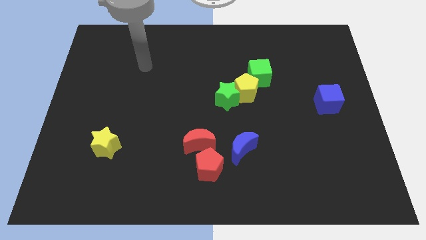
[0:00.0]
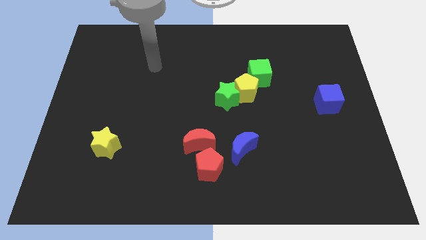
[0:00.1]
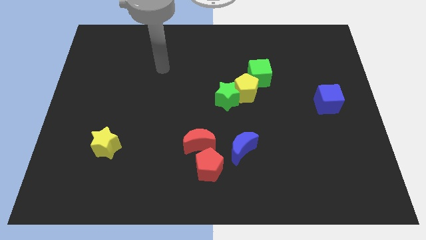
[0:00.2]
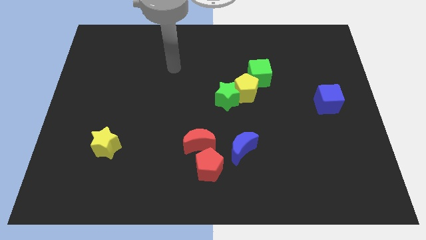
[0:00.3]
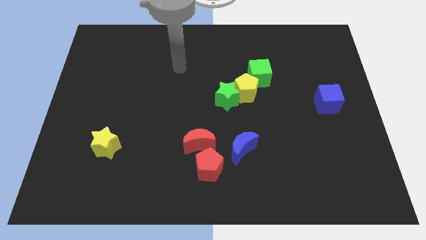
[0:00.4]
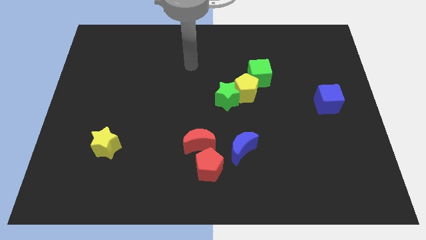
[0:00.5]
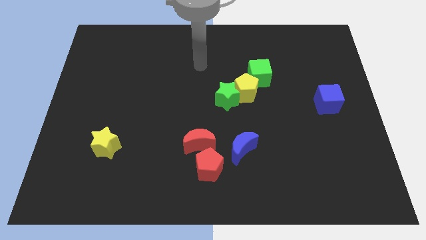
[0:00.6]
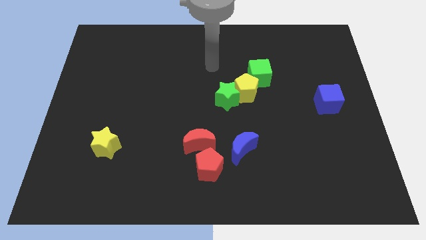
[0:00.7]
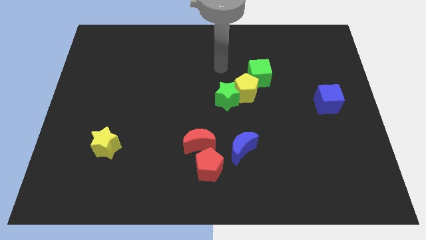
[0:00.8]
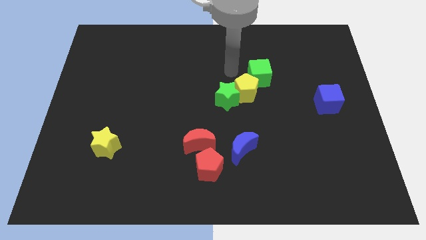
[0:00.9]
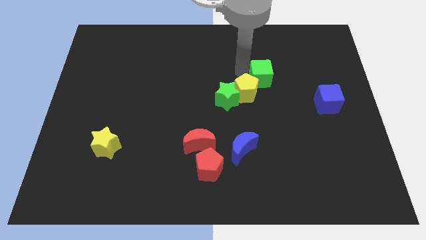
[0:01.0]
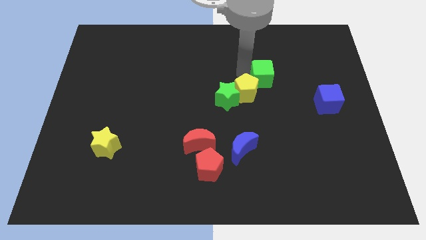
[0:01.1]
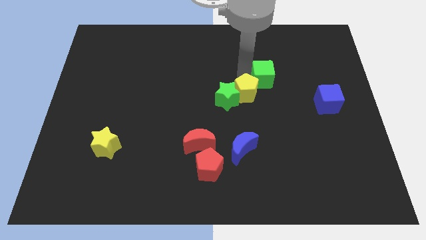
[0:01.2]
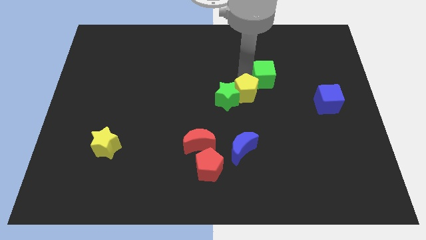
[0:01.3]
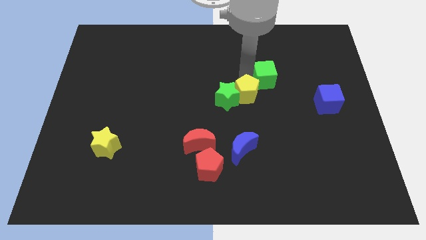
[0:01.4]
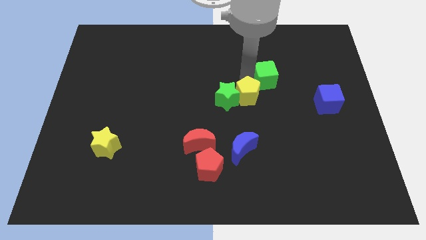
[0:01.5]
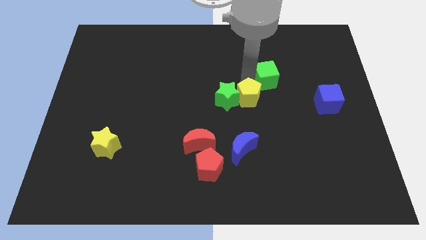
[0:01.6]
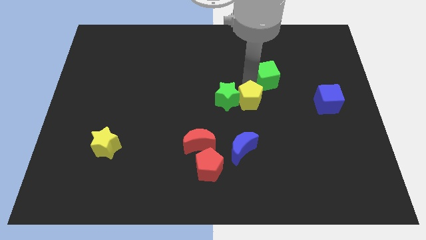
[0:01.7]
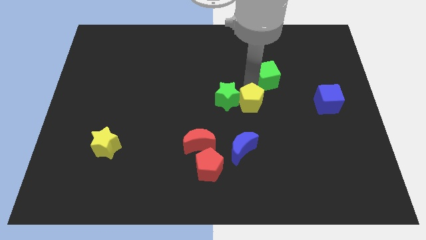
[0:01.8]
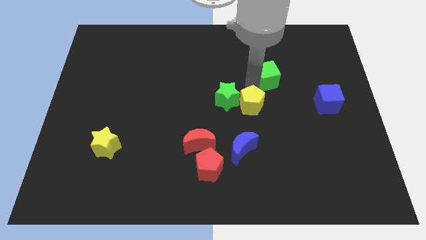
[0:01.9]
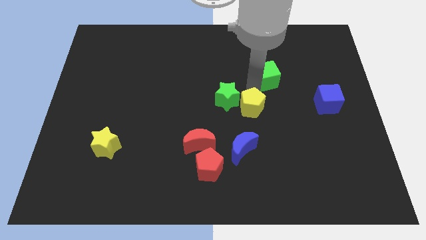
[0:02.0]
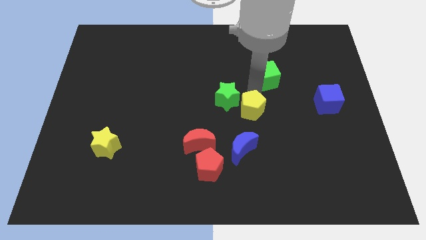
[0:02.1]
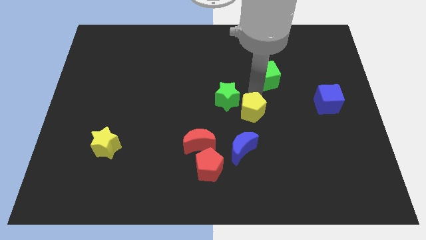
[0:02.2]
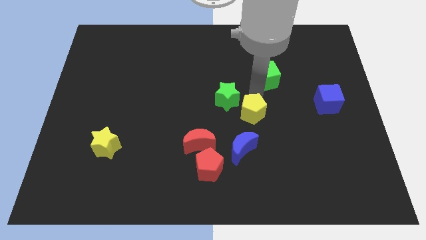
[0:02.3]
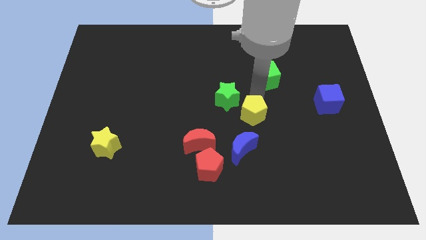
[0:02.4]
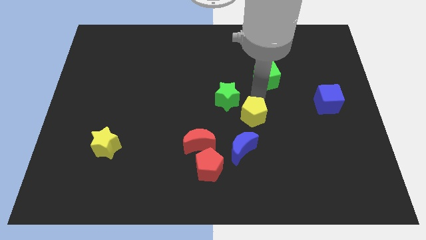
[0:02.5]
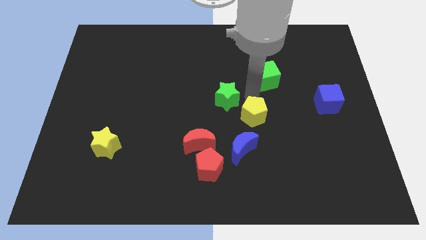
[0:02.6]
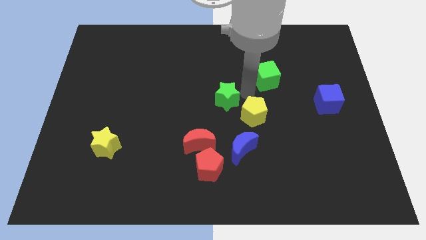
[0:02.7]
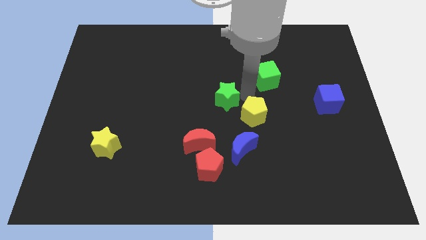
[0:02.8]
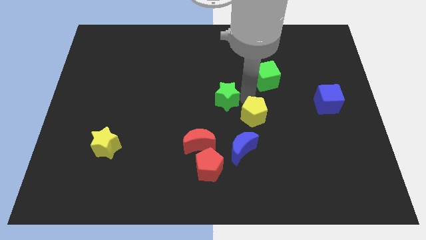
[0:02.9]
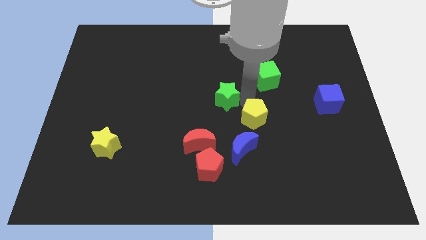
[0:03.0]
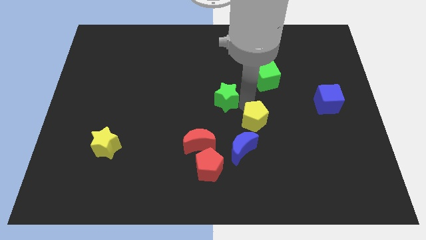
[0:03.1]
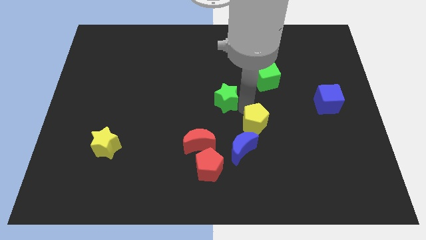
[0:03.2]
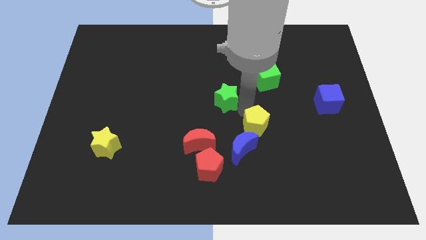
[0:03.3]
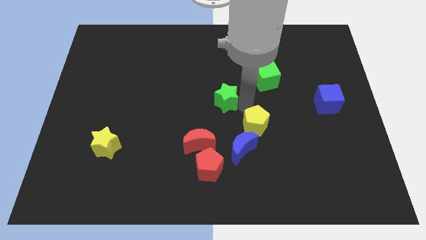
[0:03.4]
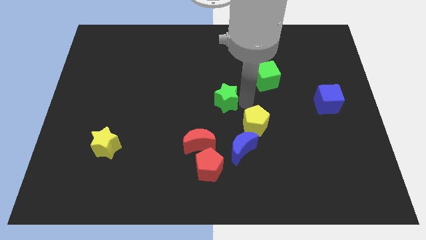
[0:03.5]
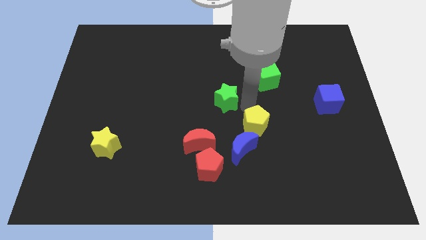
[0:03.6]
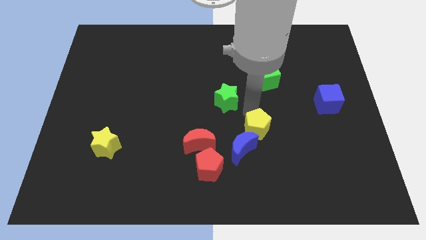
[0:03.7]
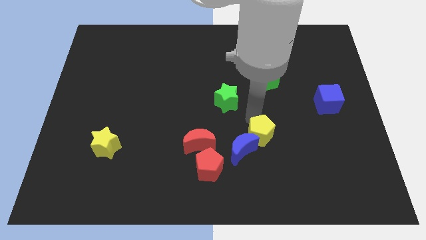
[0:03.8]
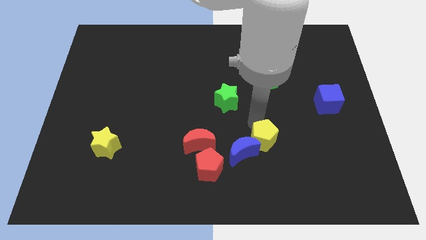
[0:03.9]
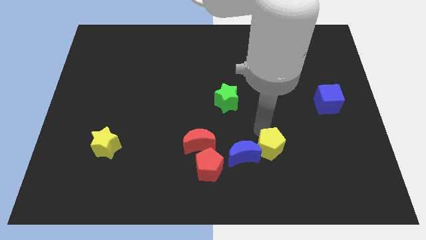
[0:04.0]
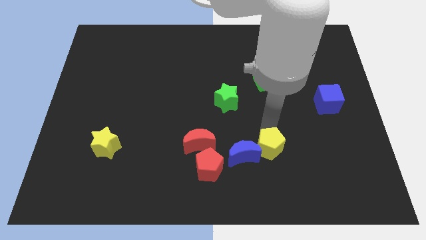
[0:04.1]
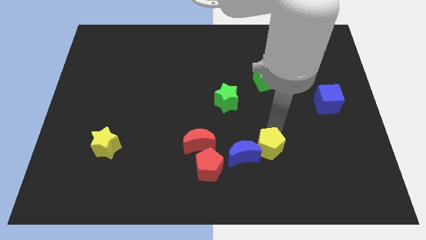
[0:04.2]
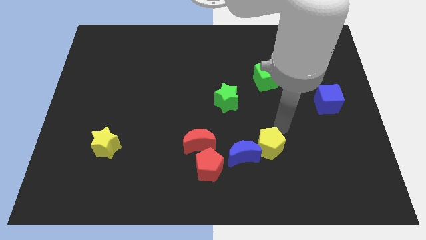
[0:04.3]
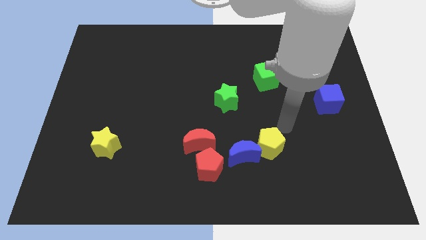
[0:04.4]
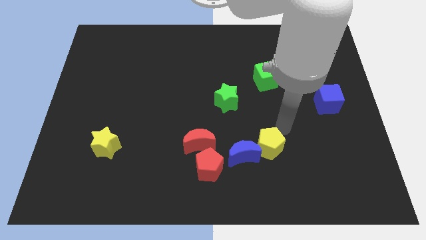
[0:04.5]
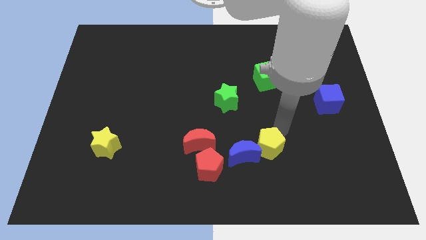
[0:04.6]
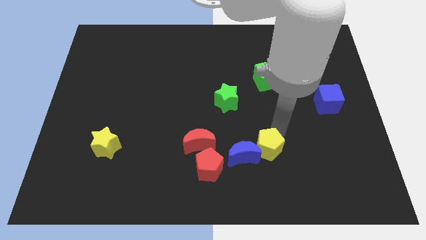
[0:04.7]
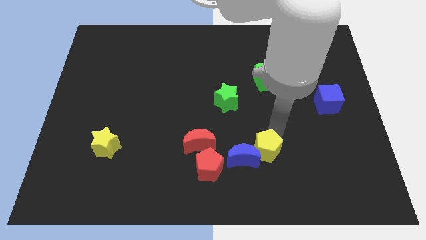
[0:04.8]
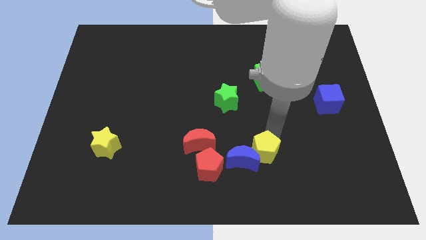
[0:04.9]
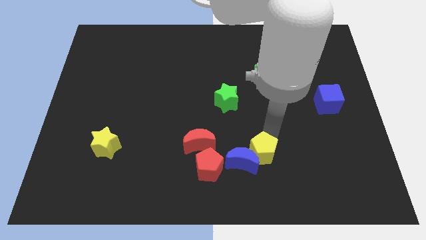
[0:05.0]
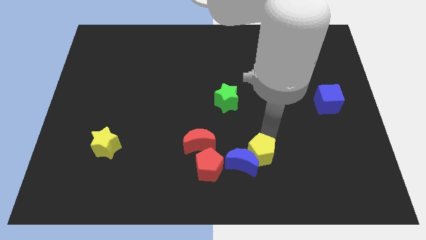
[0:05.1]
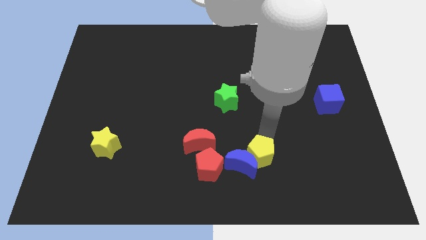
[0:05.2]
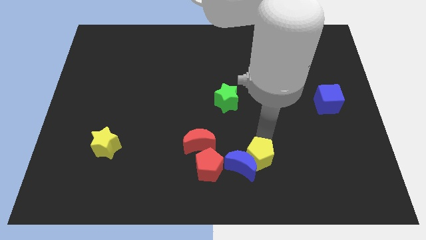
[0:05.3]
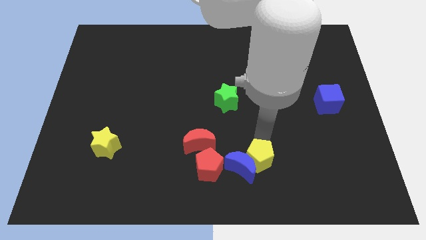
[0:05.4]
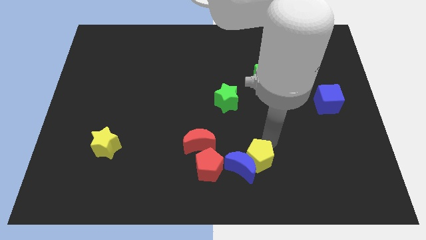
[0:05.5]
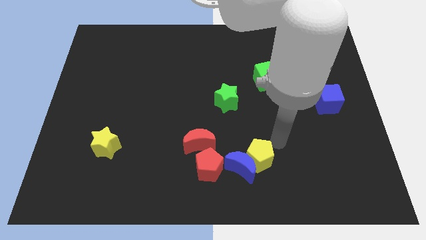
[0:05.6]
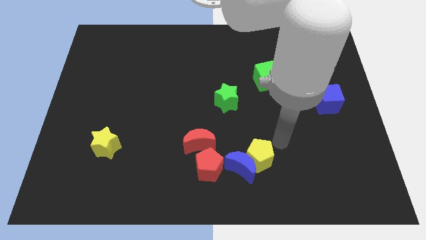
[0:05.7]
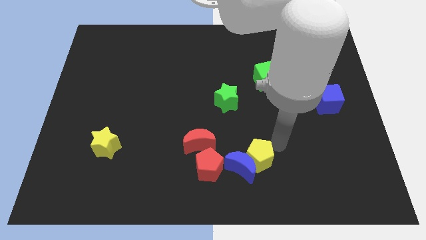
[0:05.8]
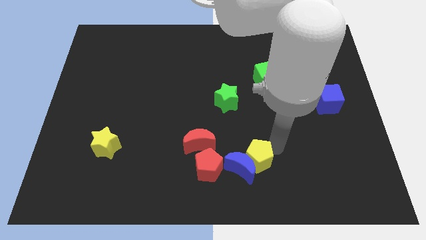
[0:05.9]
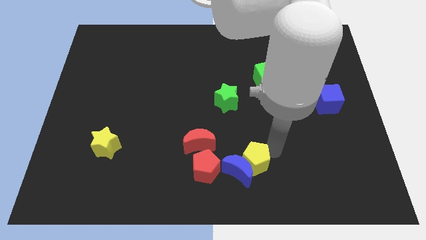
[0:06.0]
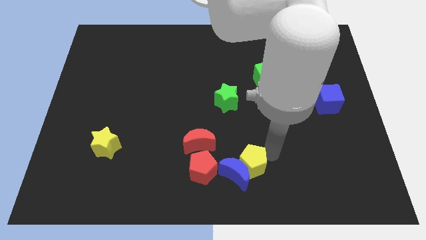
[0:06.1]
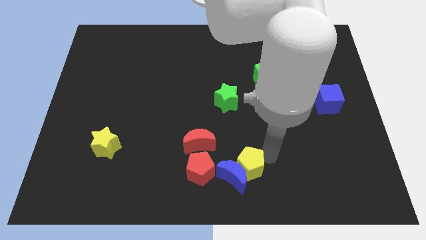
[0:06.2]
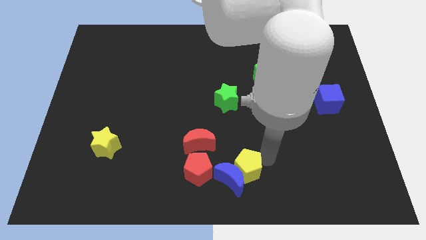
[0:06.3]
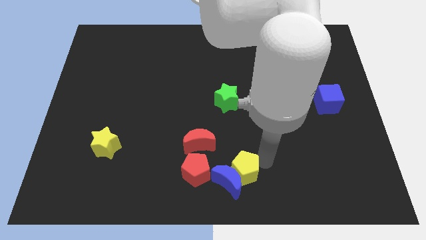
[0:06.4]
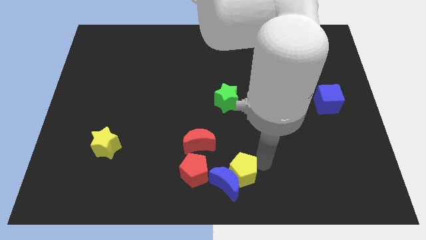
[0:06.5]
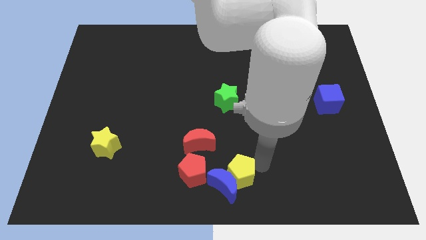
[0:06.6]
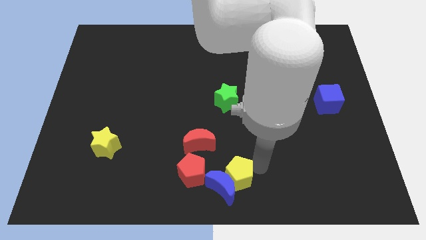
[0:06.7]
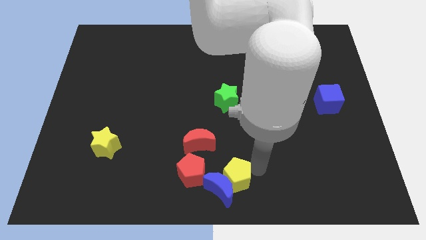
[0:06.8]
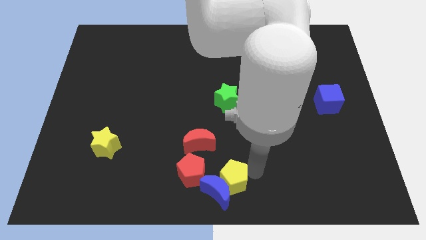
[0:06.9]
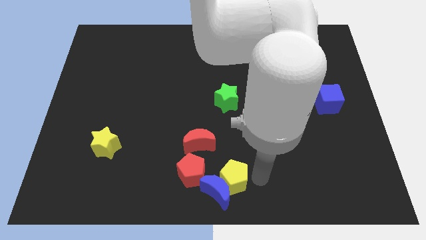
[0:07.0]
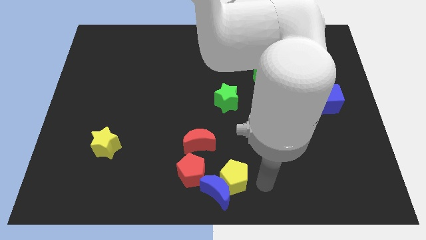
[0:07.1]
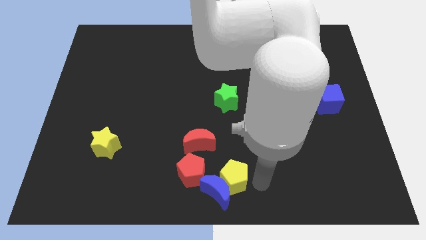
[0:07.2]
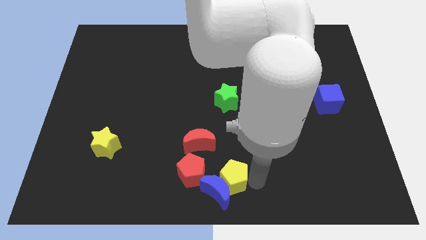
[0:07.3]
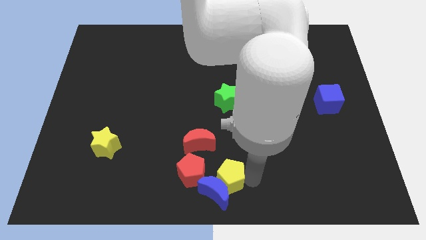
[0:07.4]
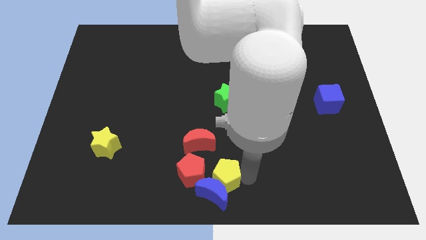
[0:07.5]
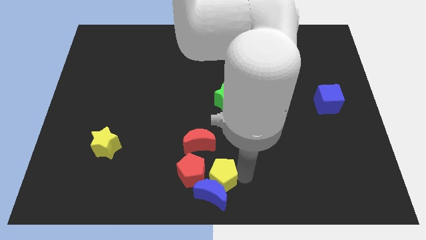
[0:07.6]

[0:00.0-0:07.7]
slide the yellow pentagon close to the red pentagon

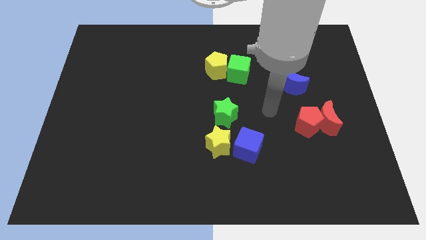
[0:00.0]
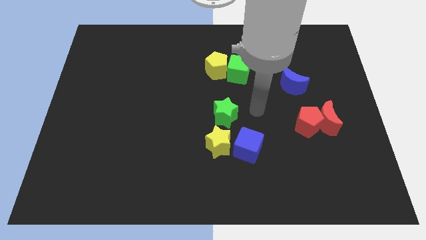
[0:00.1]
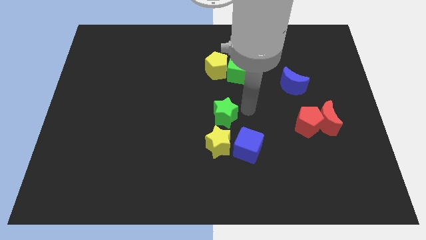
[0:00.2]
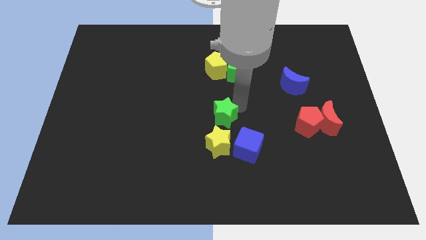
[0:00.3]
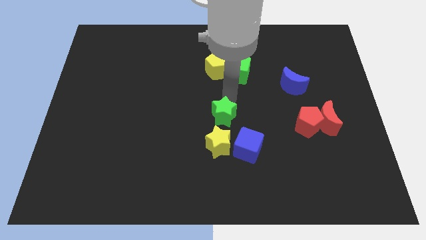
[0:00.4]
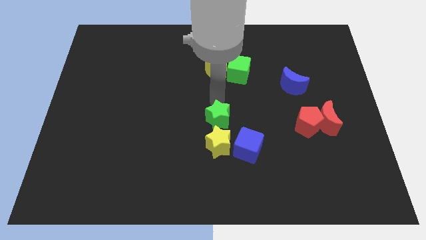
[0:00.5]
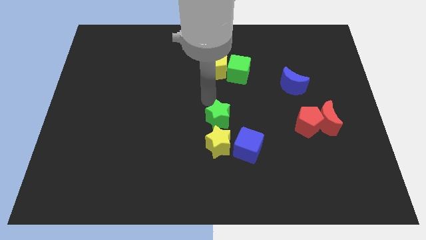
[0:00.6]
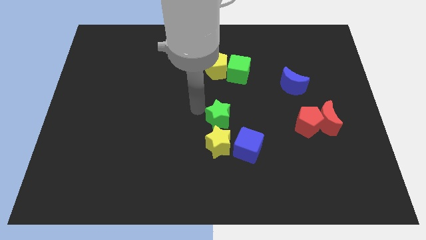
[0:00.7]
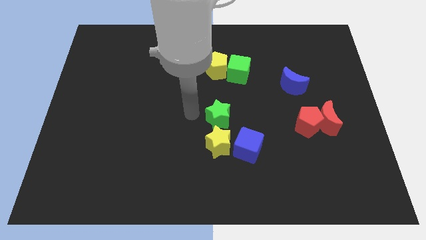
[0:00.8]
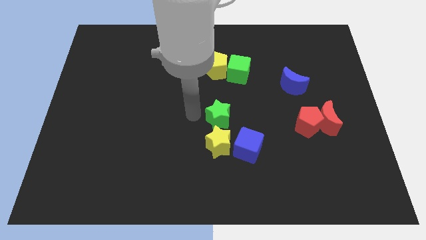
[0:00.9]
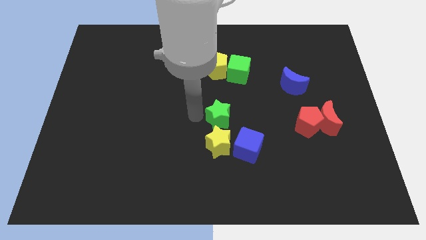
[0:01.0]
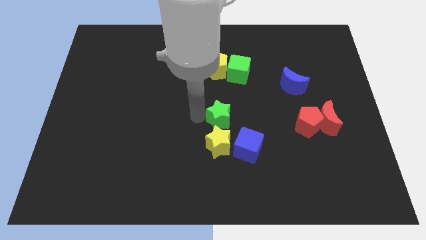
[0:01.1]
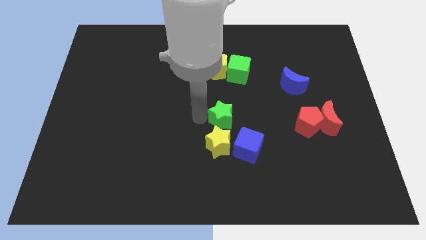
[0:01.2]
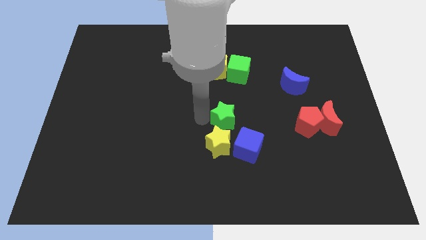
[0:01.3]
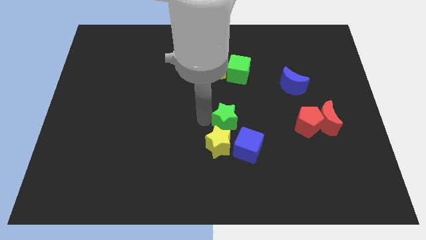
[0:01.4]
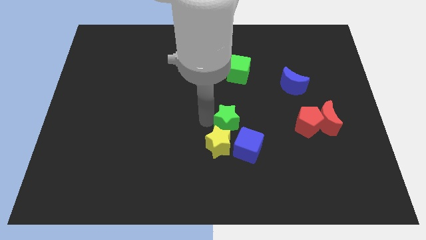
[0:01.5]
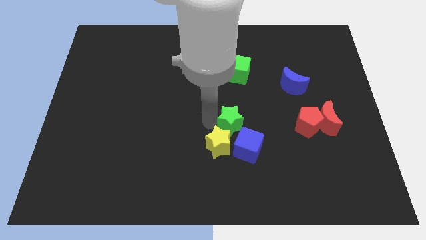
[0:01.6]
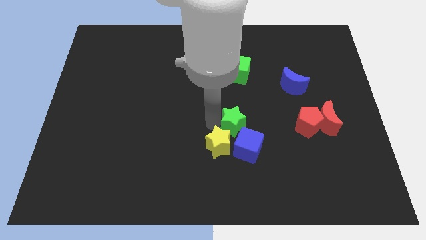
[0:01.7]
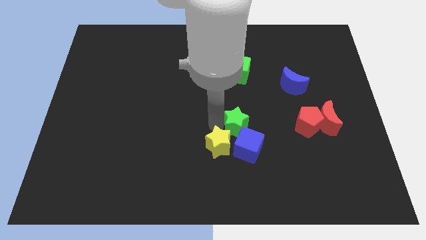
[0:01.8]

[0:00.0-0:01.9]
slide the green star next to the blue cube
